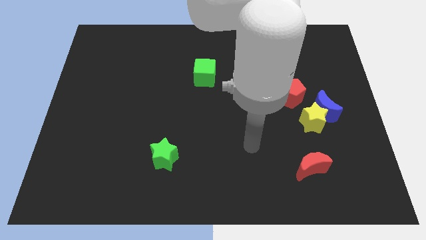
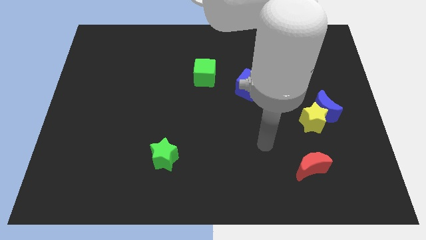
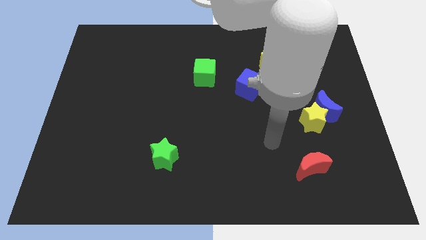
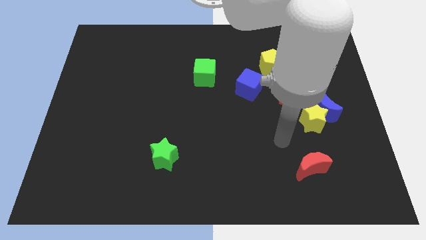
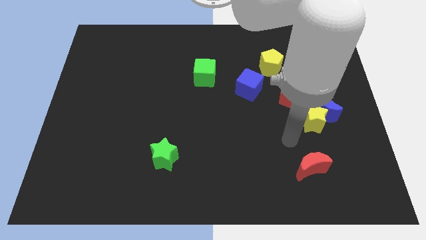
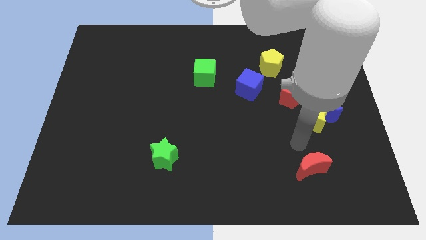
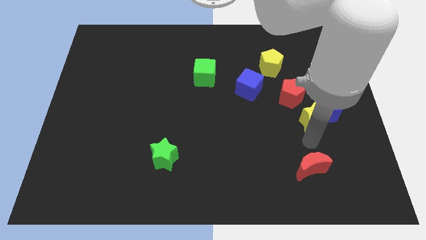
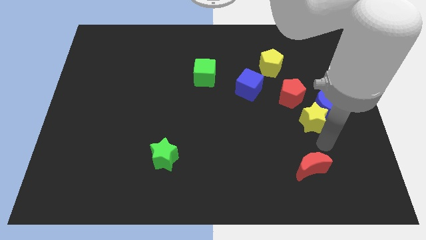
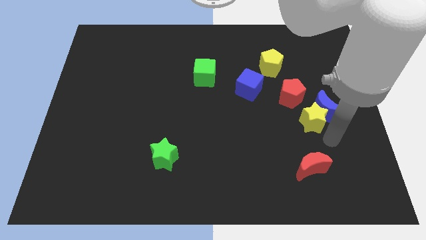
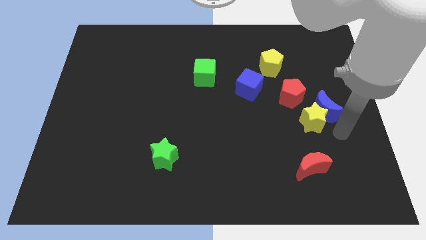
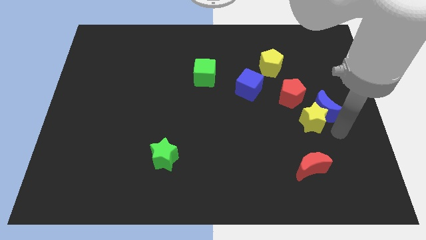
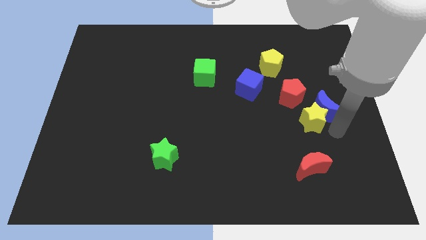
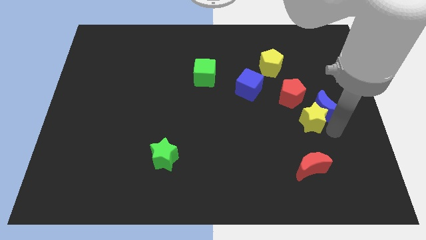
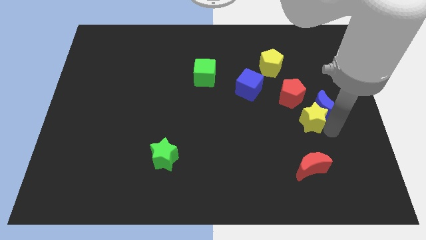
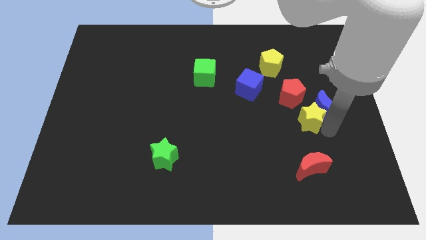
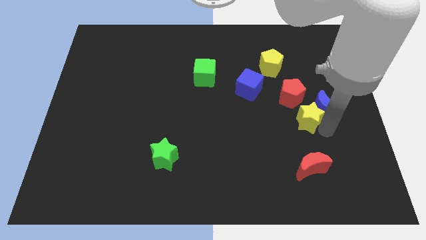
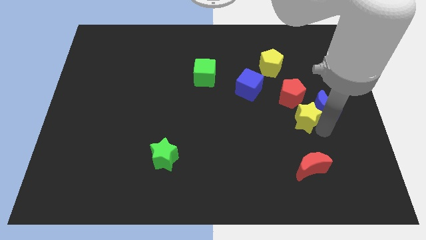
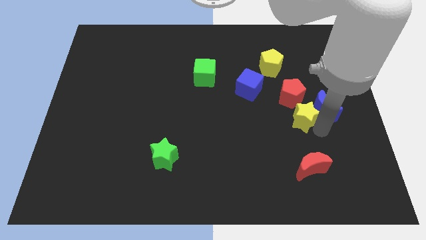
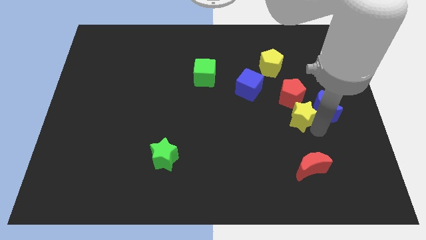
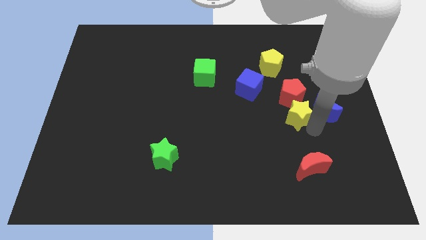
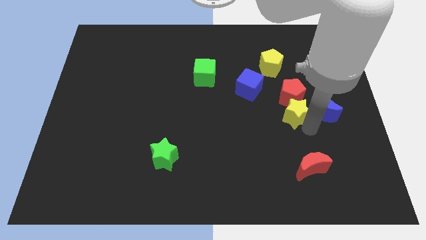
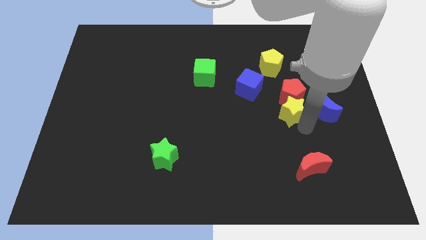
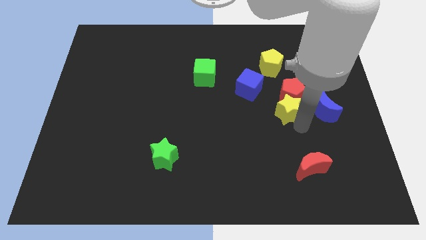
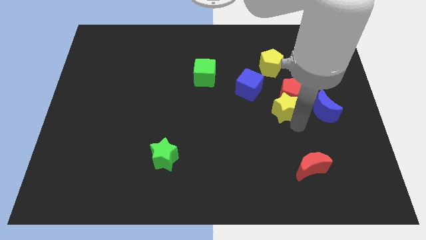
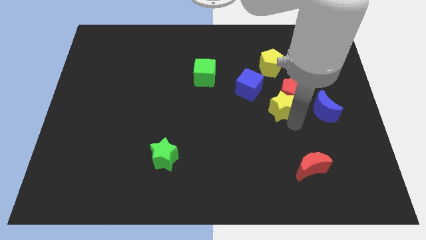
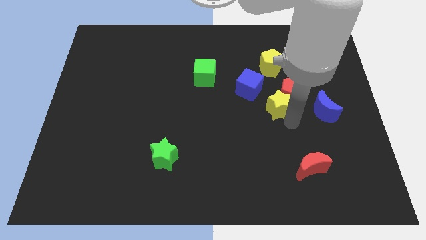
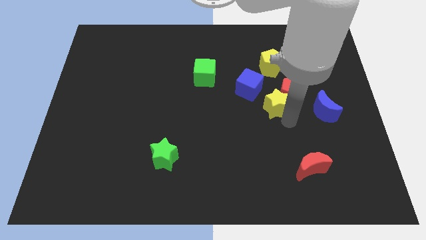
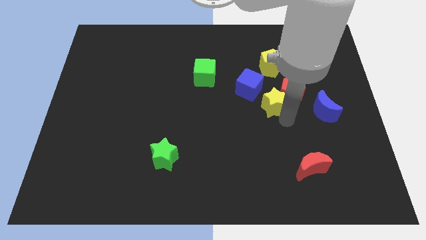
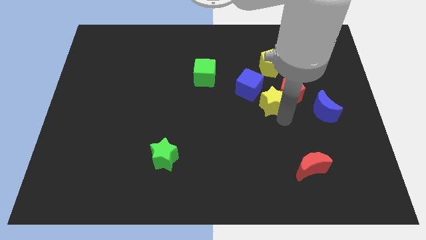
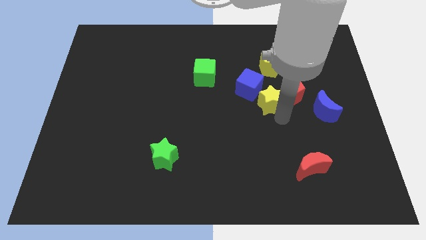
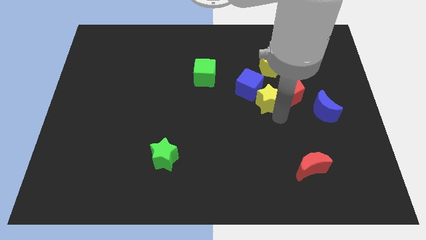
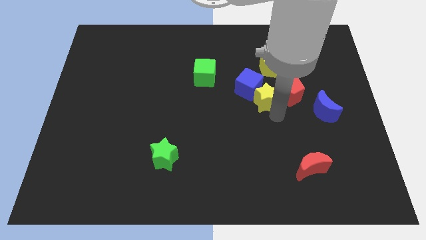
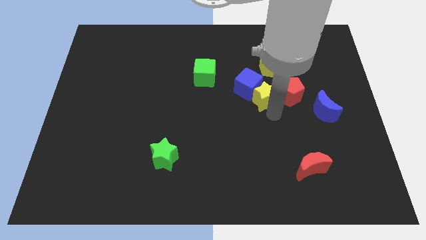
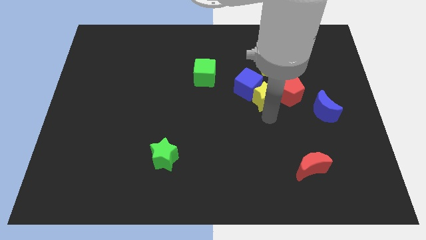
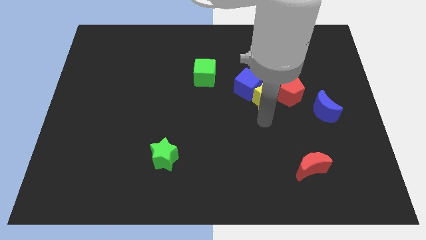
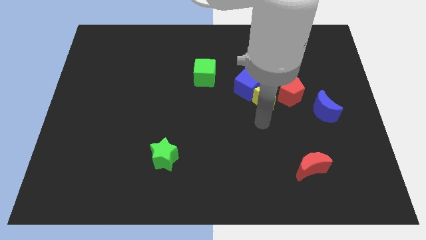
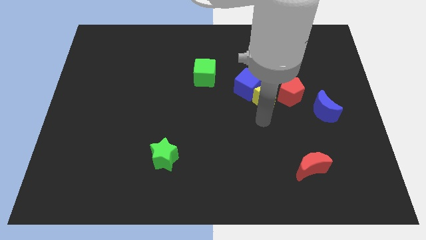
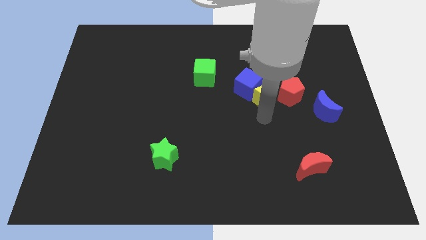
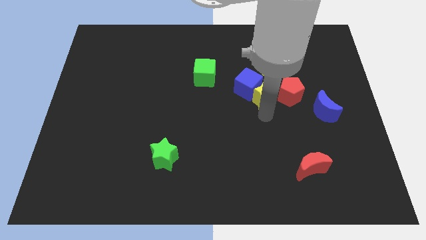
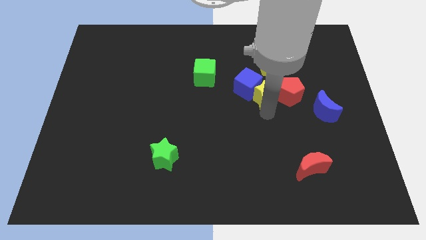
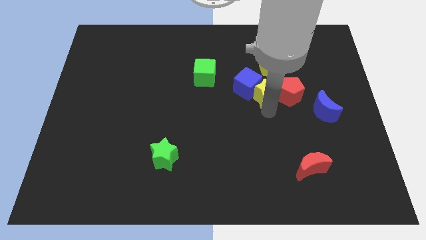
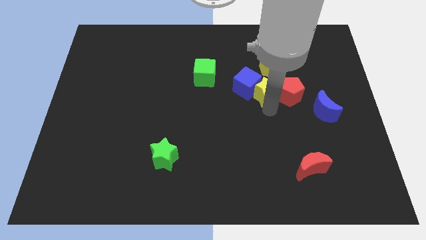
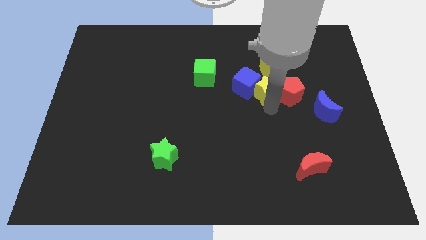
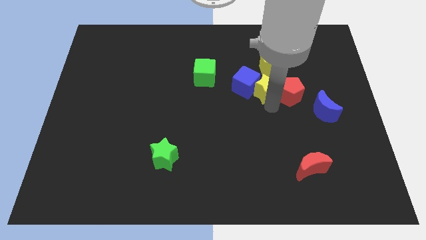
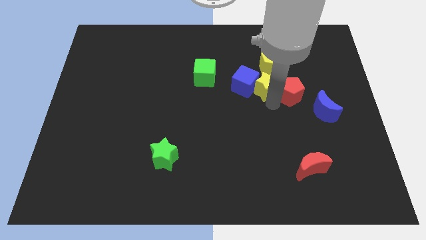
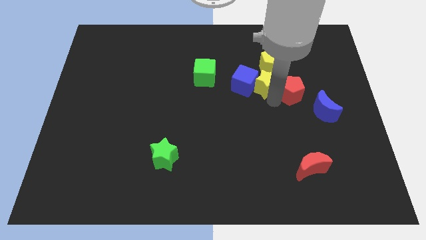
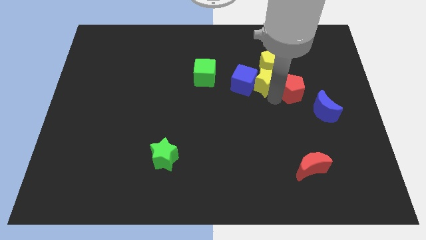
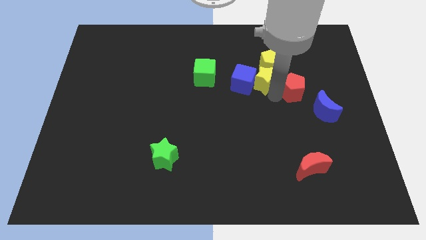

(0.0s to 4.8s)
put the yellow star close to the yellow pentagon

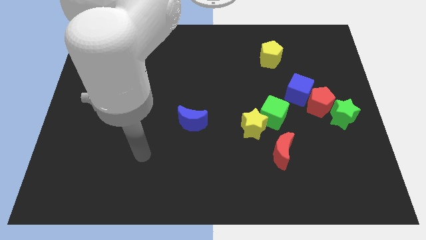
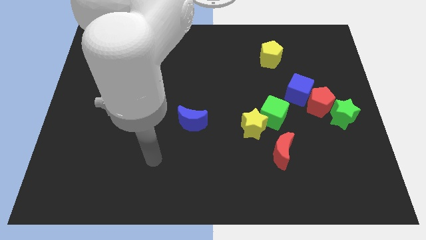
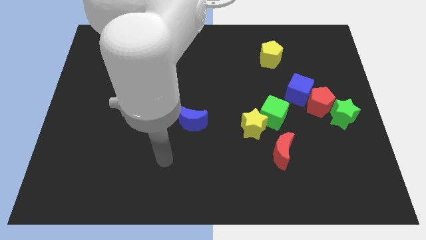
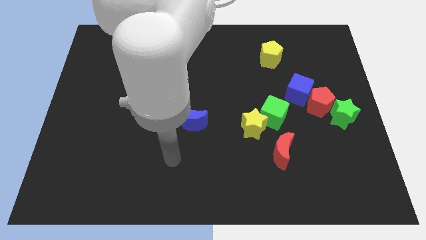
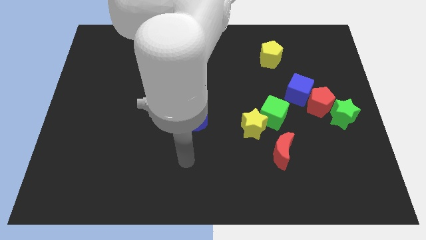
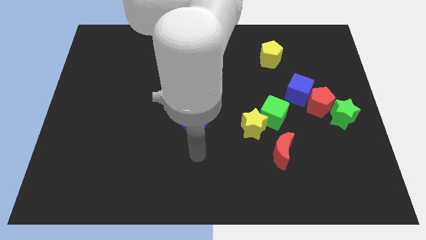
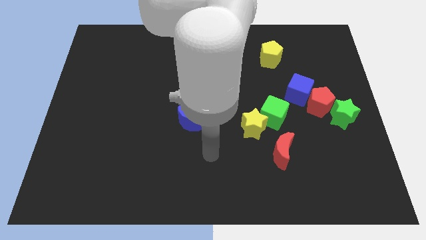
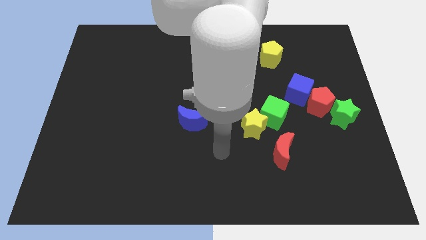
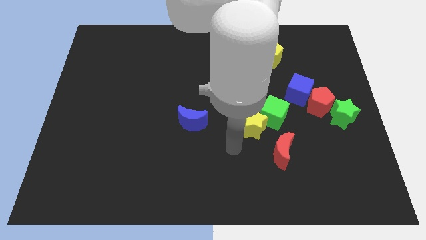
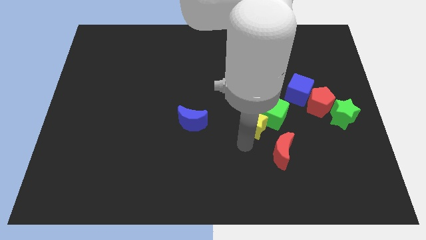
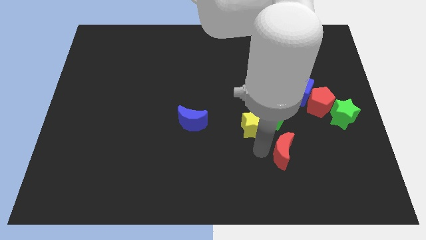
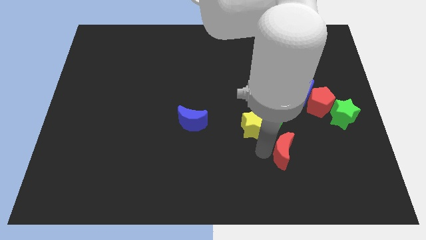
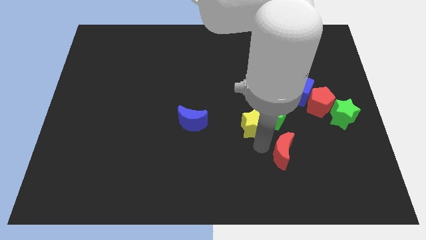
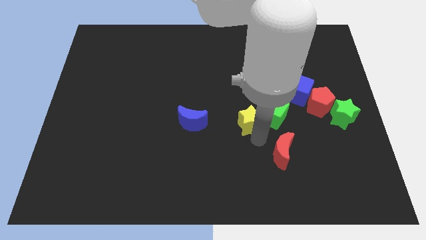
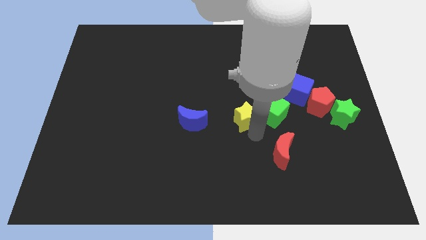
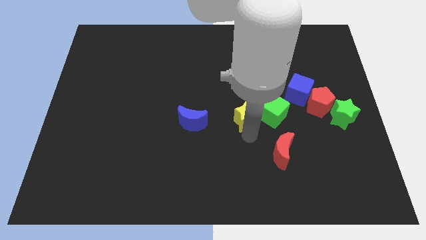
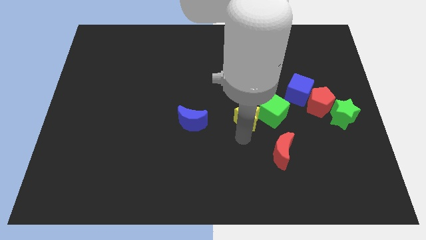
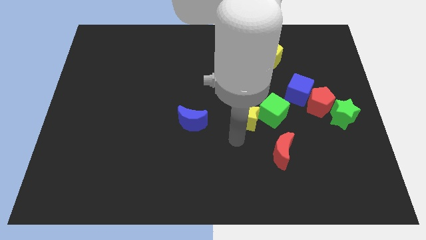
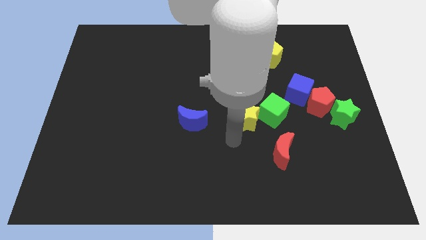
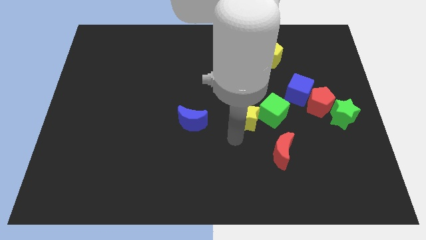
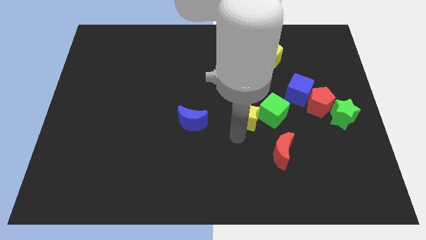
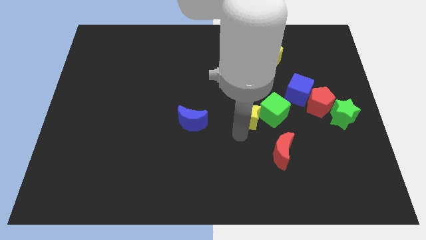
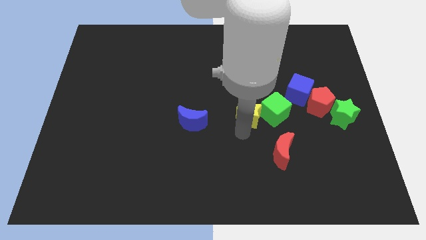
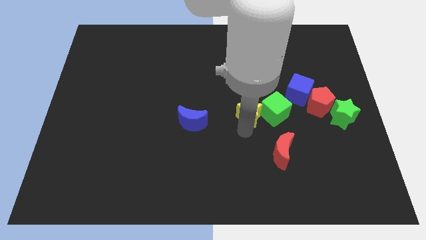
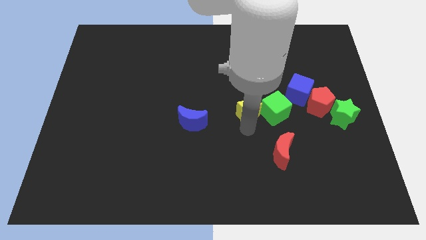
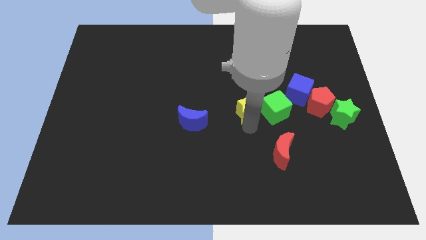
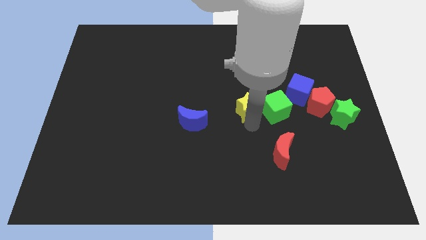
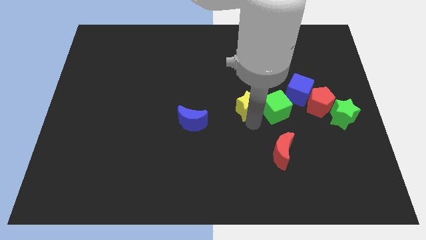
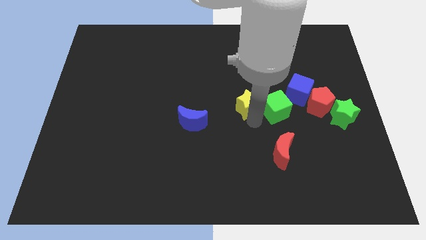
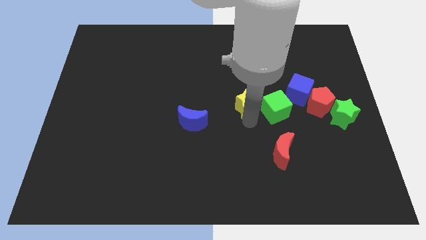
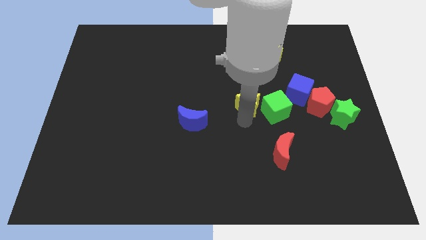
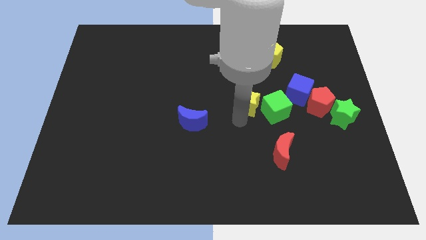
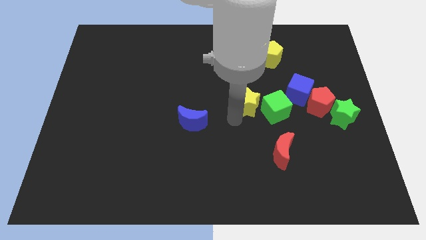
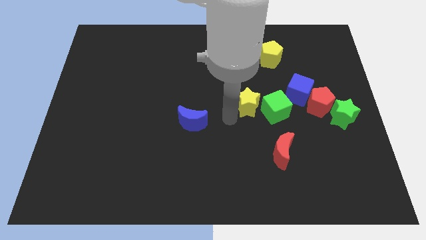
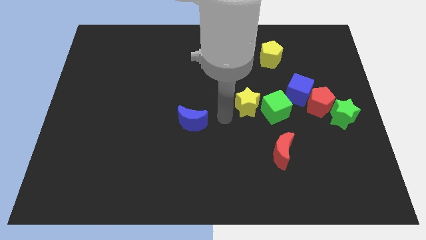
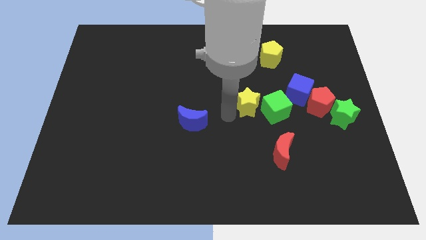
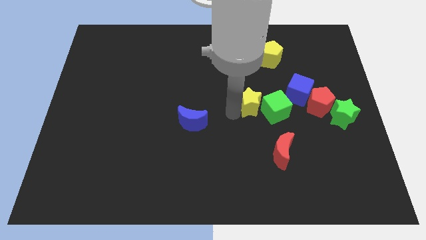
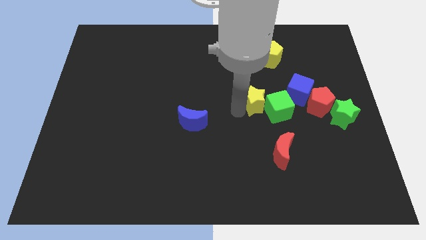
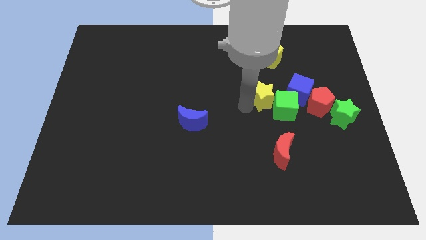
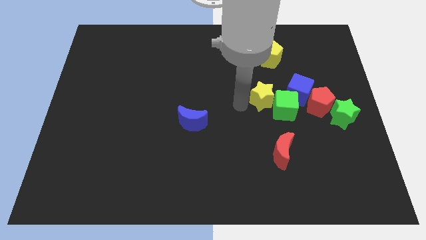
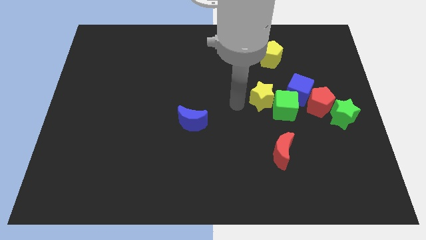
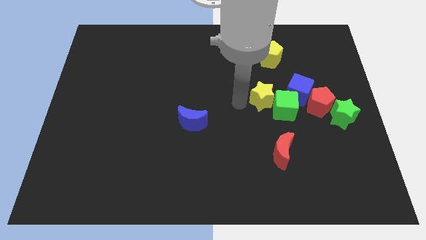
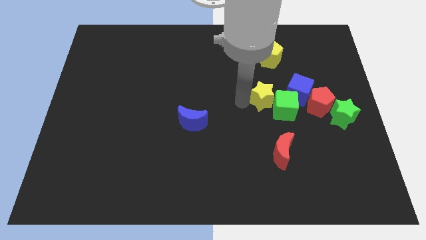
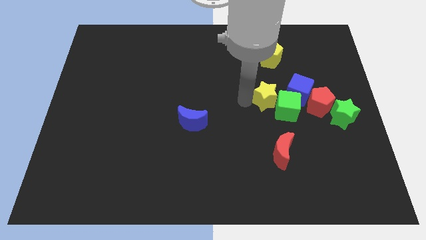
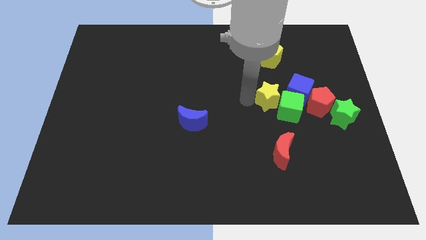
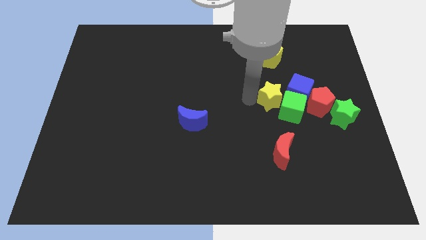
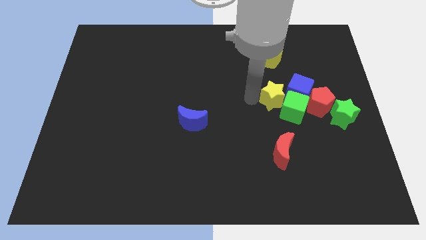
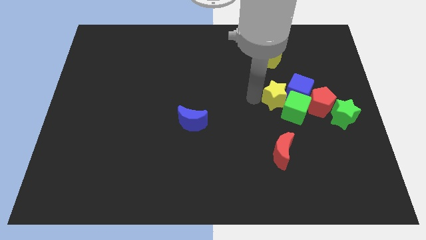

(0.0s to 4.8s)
slide the yellow star to the blue cube
